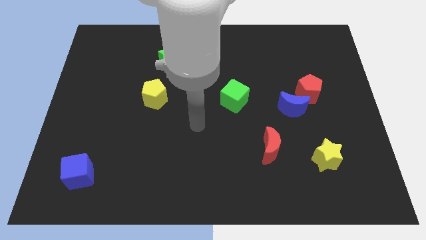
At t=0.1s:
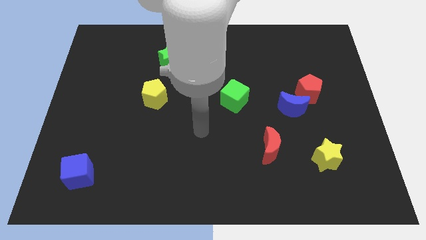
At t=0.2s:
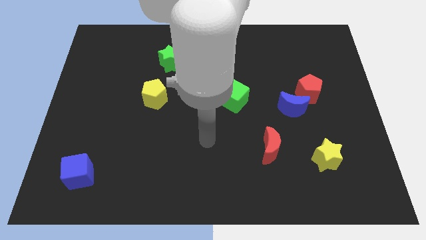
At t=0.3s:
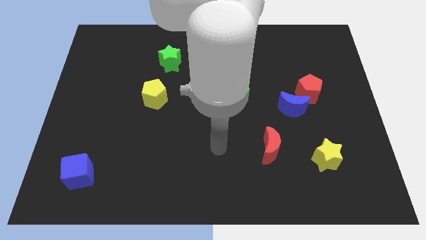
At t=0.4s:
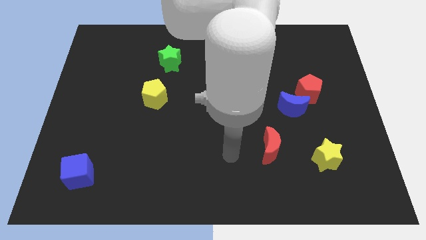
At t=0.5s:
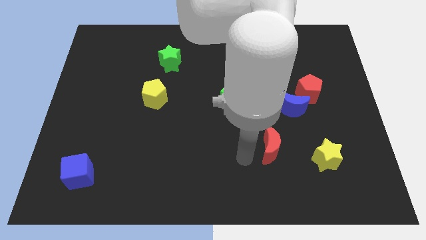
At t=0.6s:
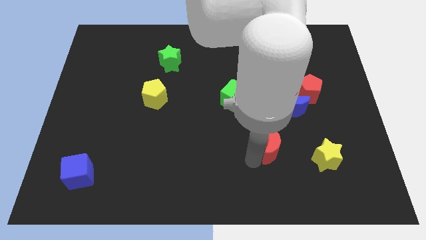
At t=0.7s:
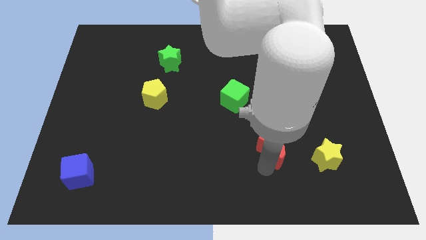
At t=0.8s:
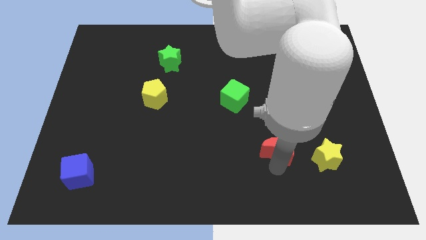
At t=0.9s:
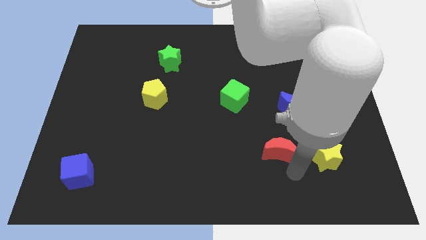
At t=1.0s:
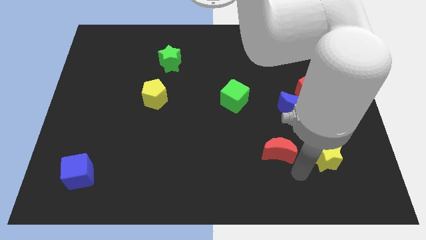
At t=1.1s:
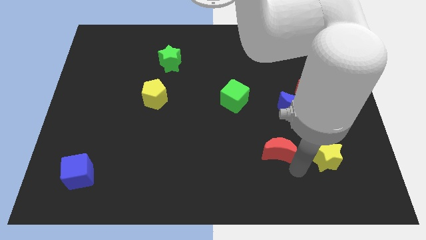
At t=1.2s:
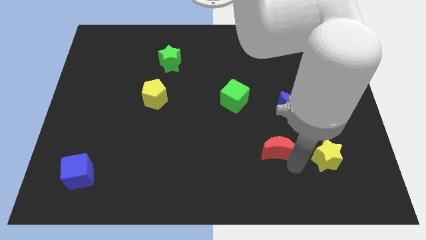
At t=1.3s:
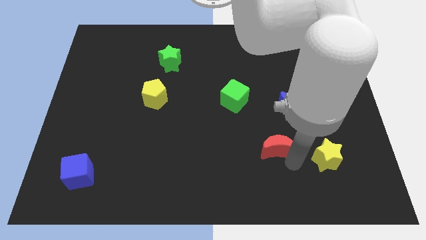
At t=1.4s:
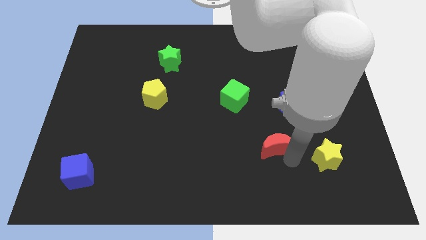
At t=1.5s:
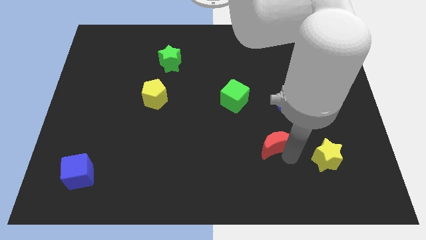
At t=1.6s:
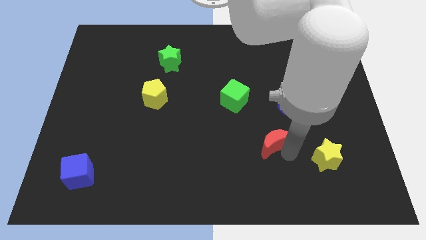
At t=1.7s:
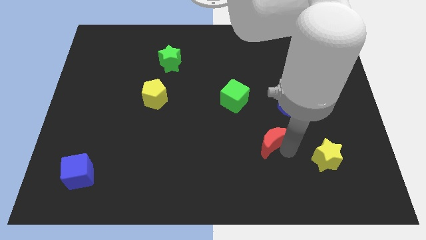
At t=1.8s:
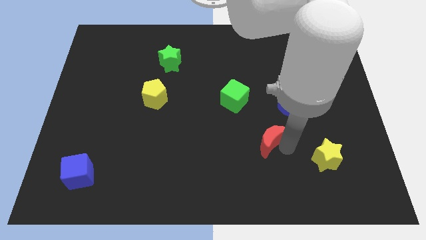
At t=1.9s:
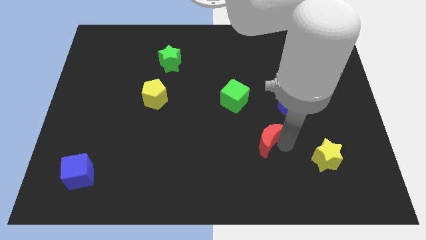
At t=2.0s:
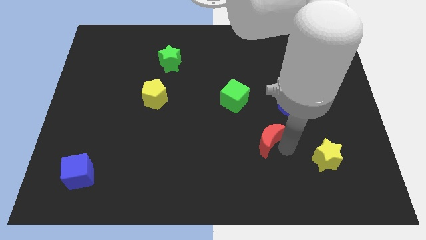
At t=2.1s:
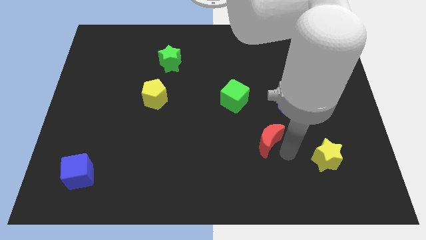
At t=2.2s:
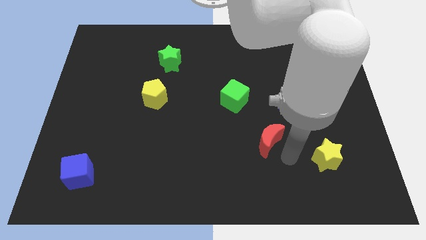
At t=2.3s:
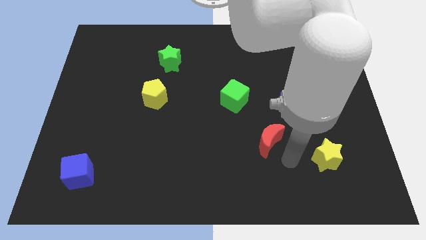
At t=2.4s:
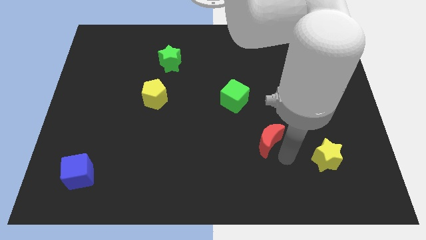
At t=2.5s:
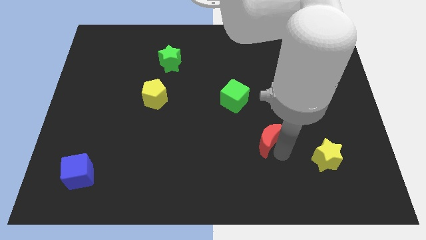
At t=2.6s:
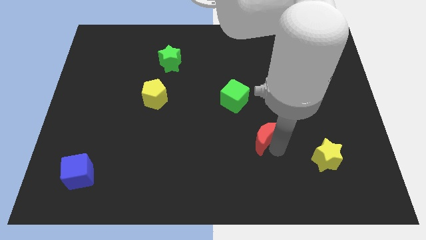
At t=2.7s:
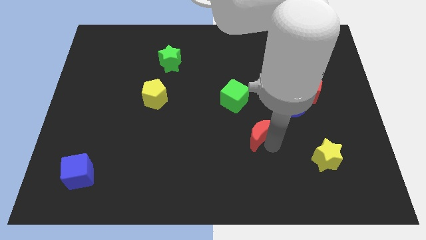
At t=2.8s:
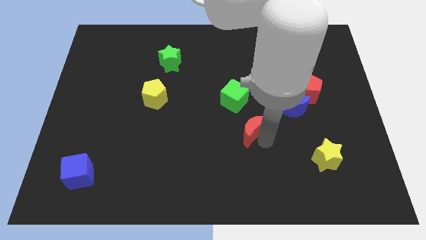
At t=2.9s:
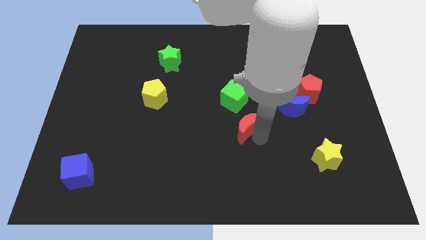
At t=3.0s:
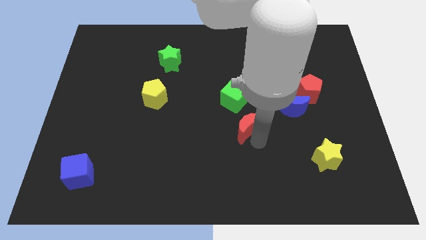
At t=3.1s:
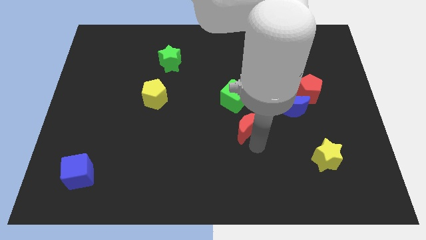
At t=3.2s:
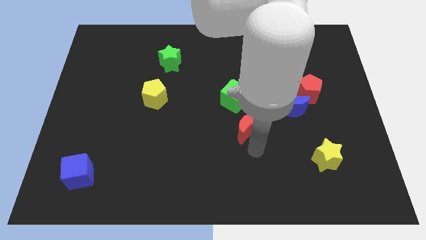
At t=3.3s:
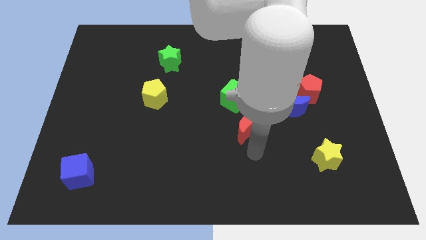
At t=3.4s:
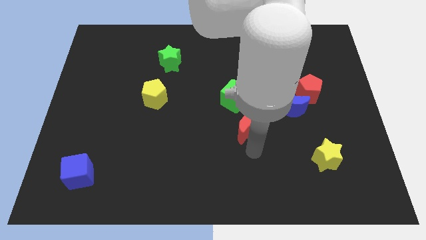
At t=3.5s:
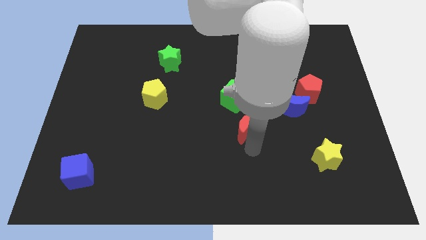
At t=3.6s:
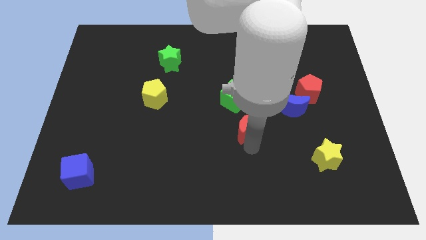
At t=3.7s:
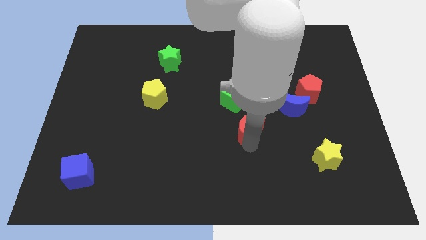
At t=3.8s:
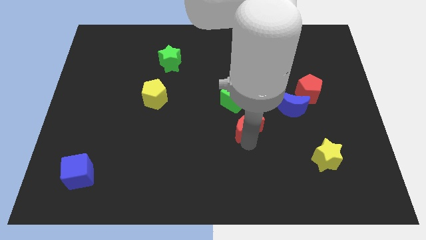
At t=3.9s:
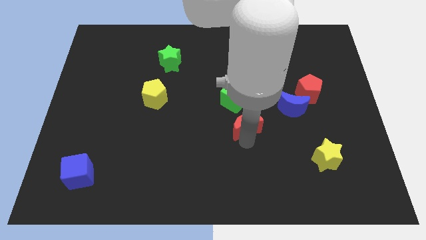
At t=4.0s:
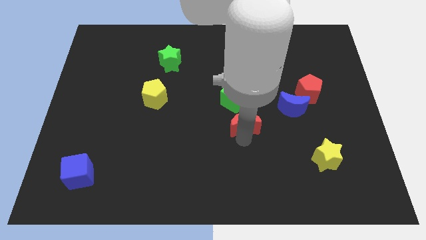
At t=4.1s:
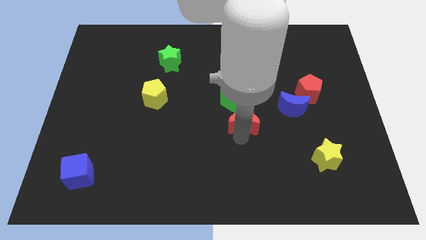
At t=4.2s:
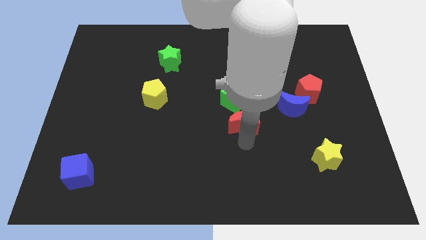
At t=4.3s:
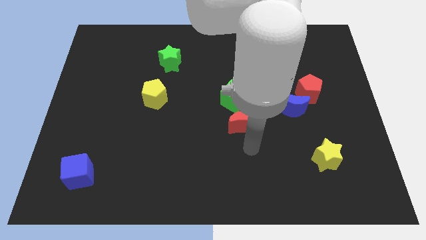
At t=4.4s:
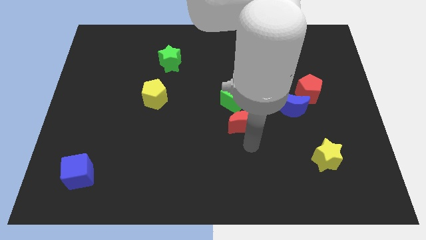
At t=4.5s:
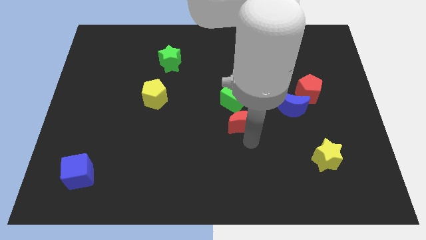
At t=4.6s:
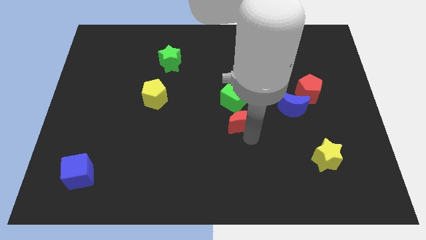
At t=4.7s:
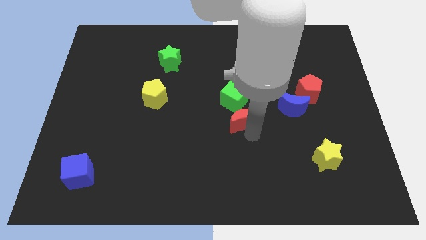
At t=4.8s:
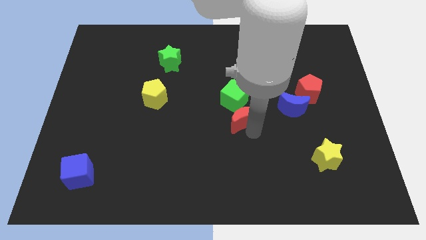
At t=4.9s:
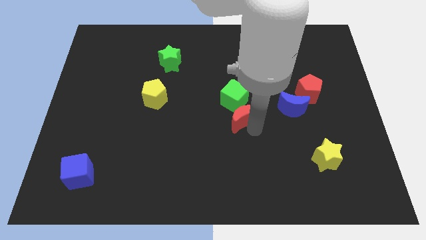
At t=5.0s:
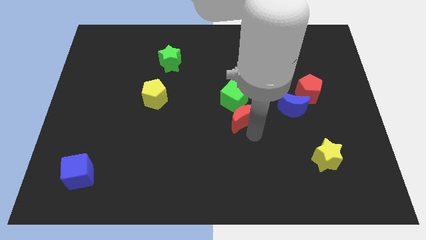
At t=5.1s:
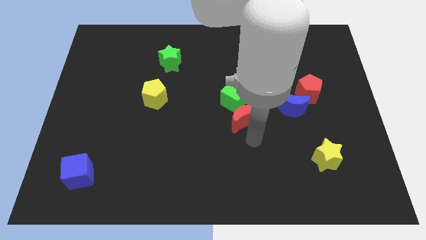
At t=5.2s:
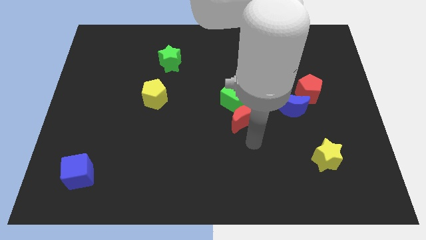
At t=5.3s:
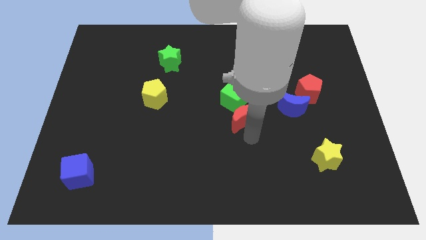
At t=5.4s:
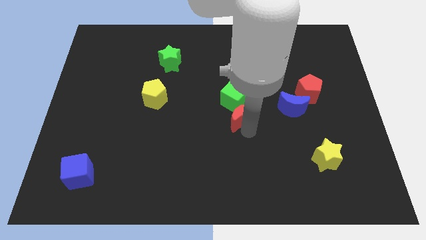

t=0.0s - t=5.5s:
slide the red moon close to the green cube

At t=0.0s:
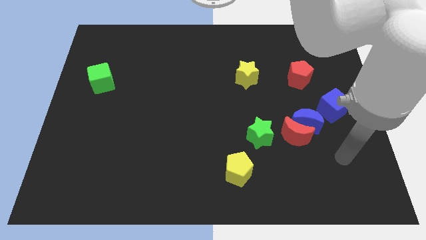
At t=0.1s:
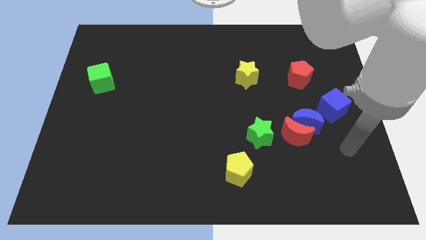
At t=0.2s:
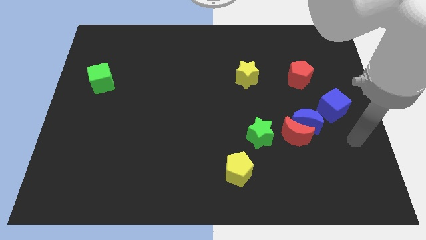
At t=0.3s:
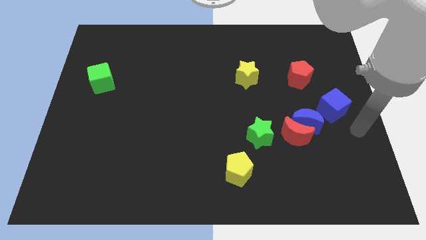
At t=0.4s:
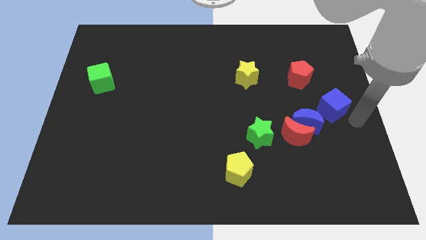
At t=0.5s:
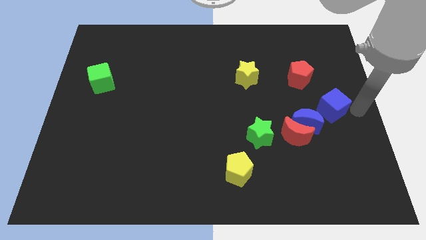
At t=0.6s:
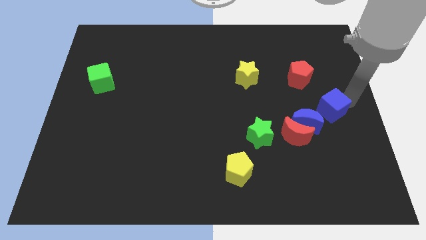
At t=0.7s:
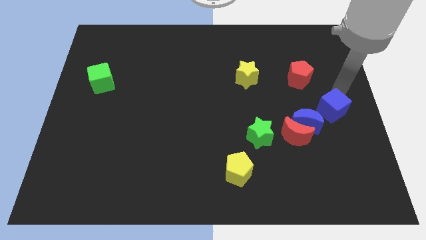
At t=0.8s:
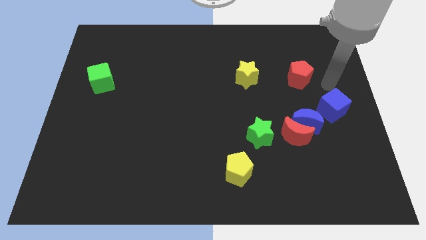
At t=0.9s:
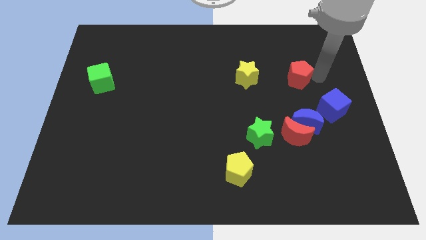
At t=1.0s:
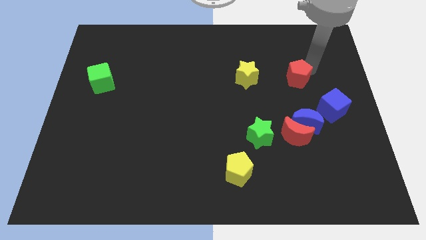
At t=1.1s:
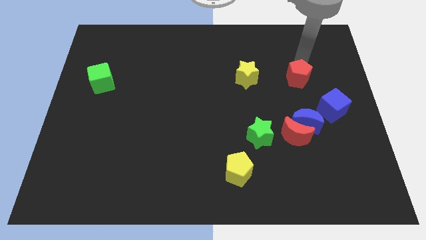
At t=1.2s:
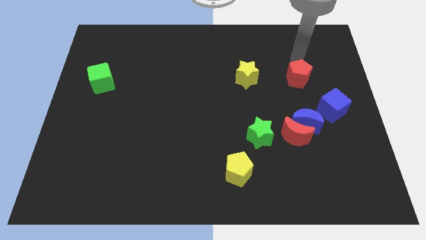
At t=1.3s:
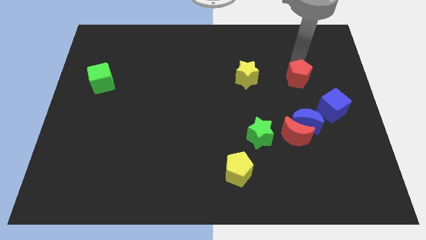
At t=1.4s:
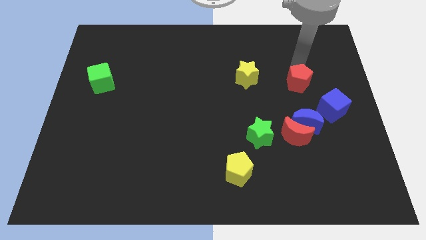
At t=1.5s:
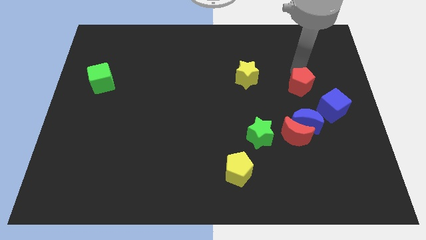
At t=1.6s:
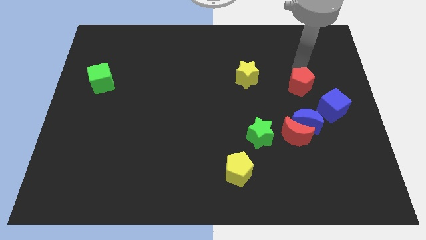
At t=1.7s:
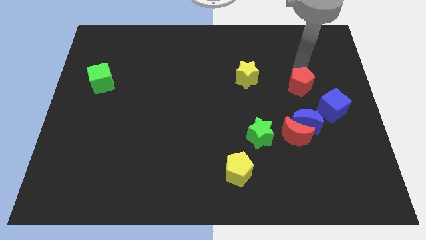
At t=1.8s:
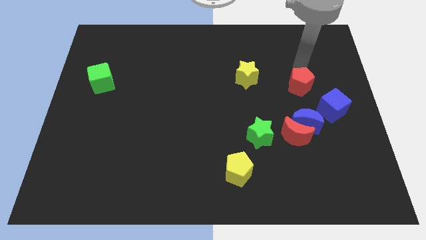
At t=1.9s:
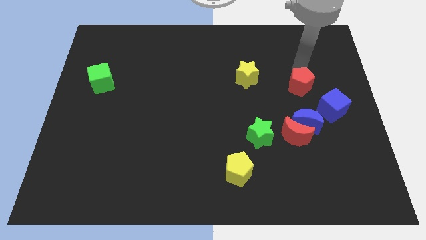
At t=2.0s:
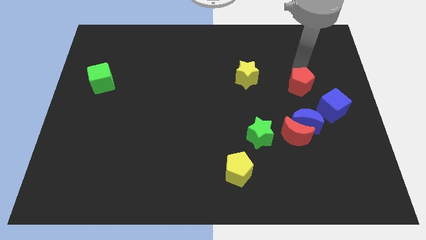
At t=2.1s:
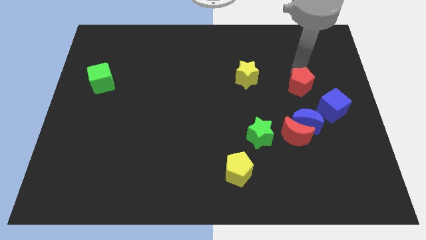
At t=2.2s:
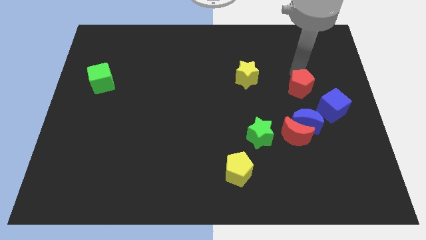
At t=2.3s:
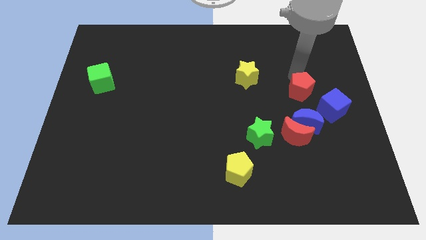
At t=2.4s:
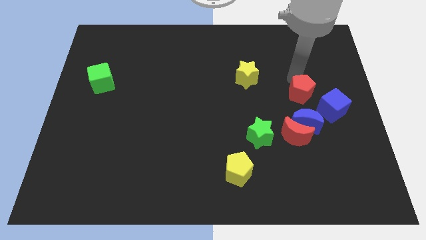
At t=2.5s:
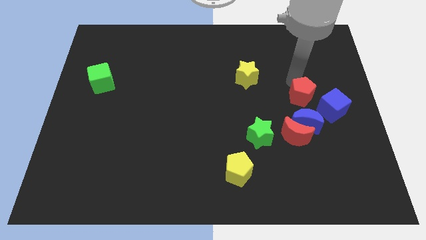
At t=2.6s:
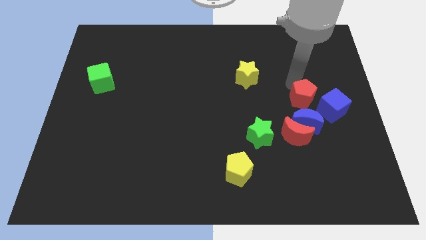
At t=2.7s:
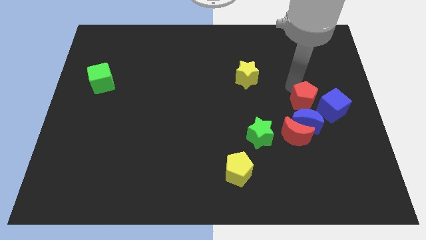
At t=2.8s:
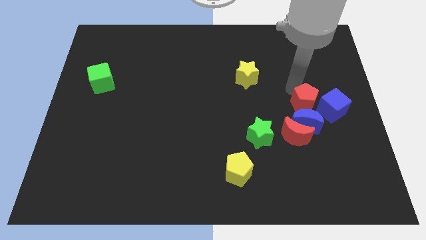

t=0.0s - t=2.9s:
put the red pentagon close to the blue moon
